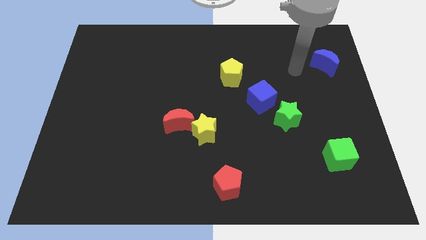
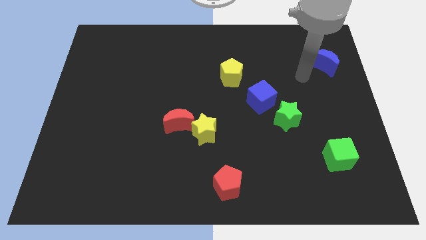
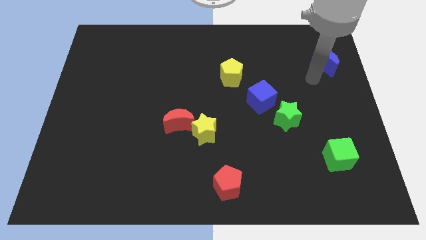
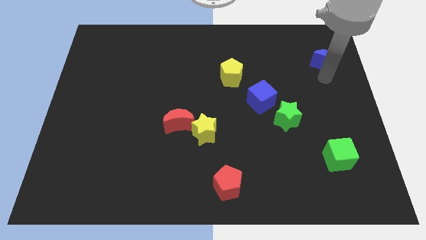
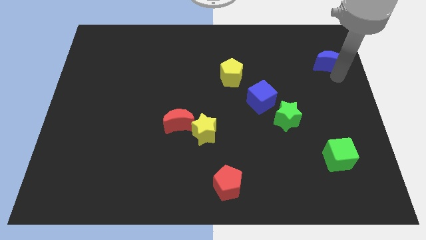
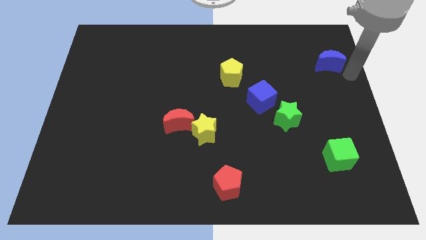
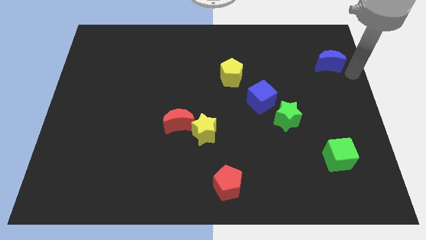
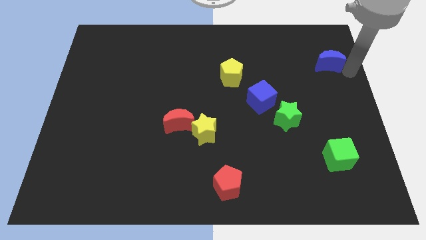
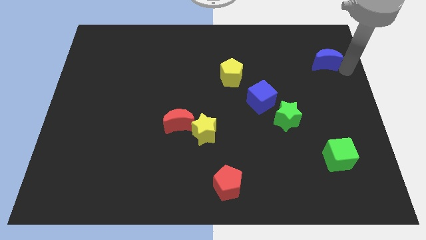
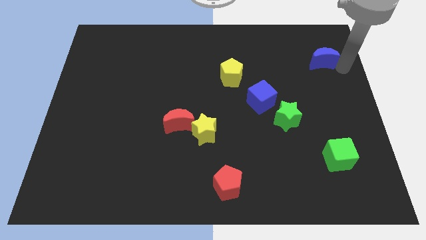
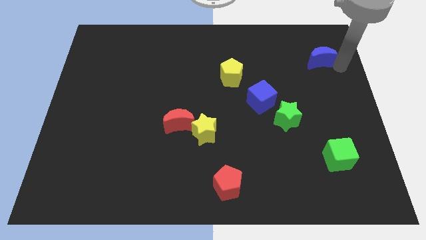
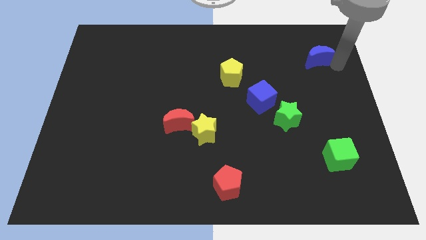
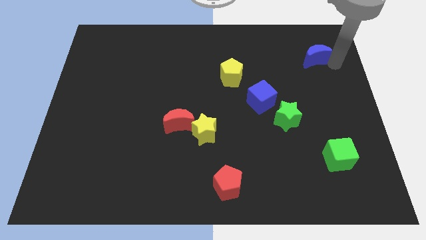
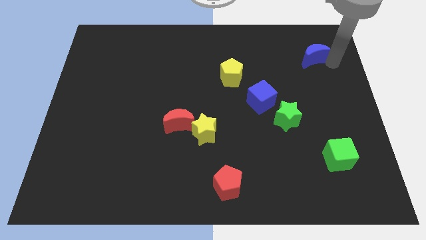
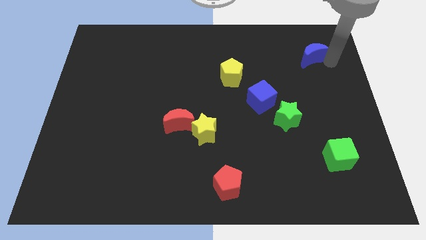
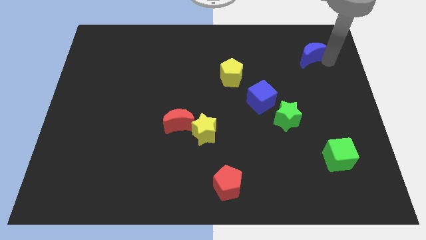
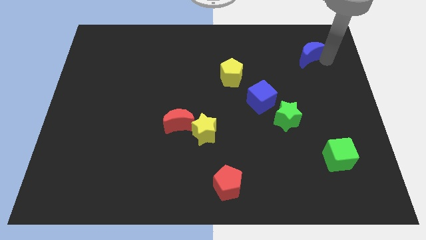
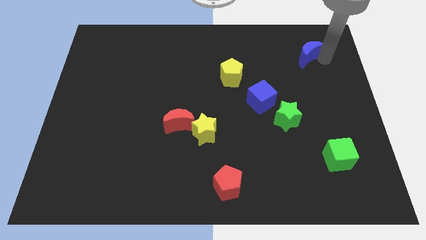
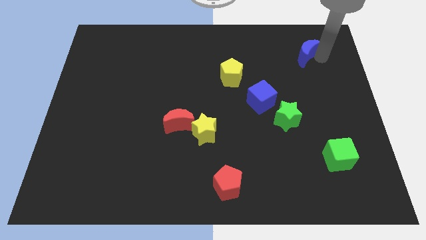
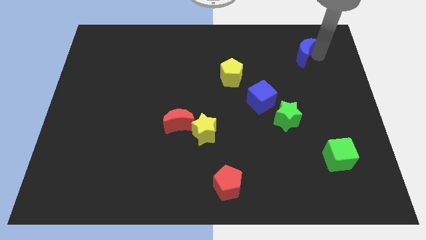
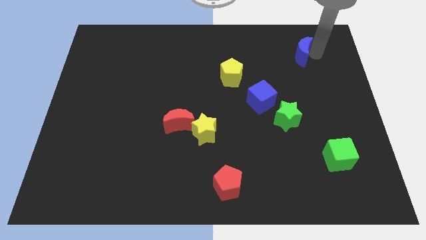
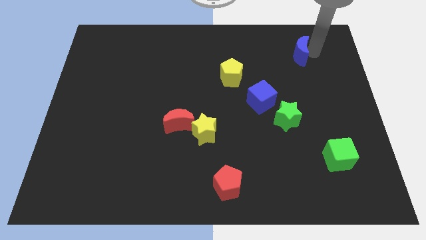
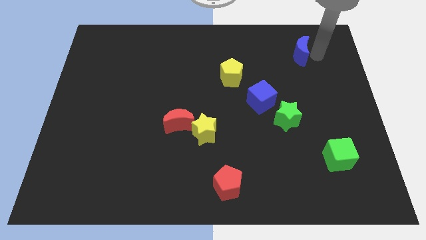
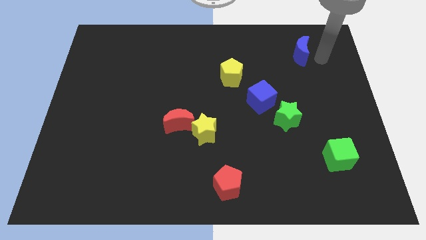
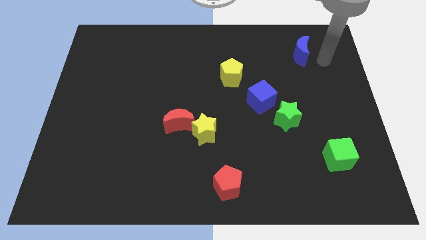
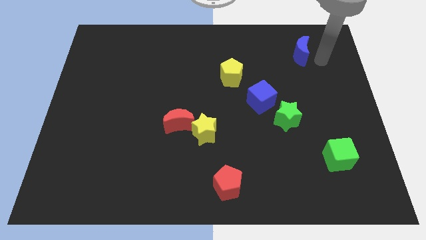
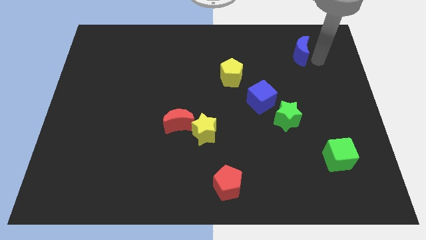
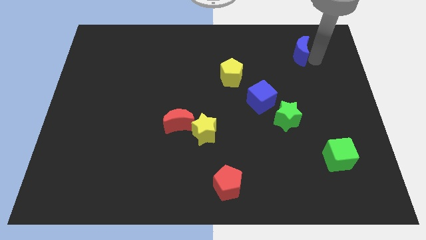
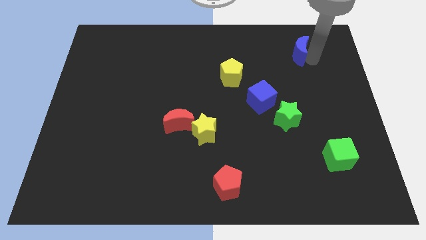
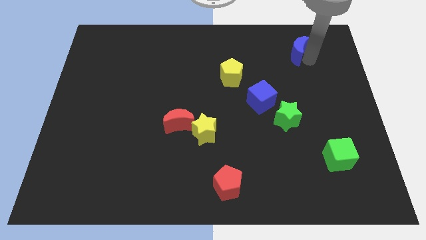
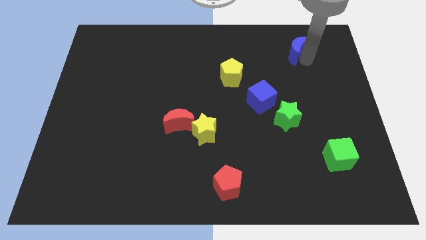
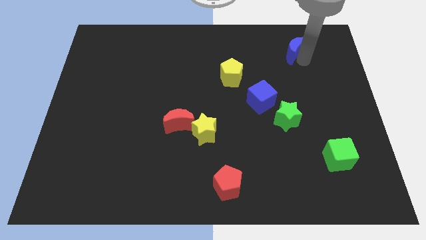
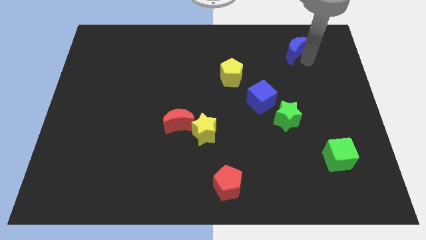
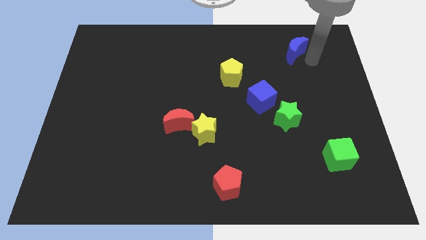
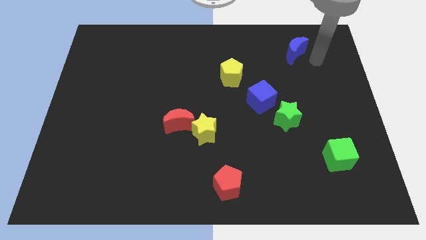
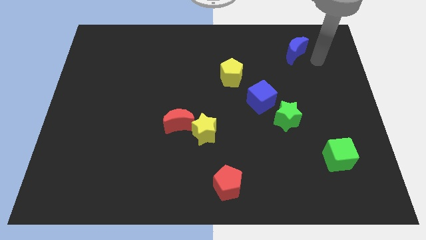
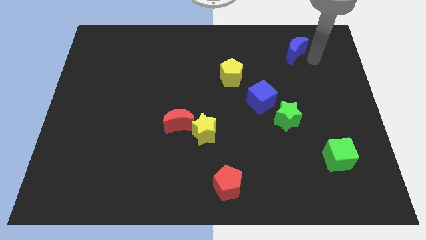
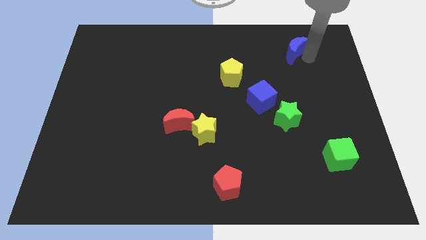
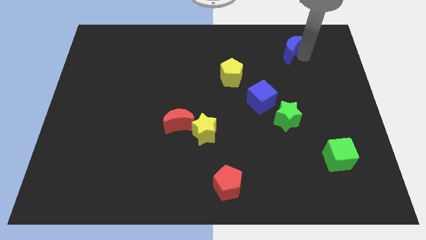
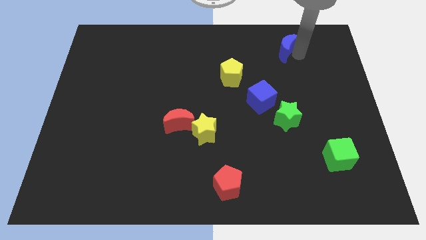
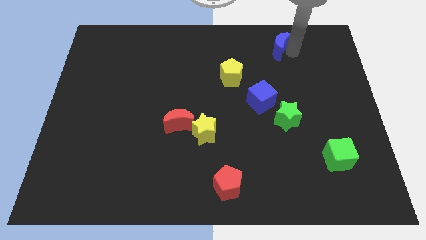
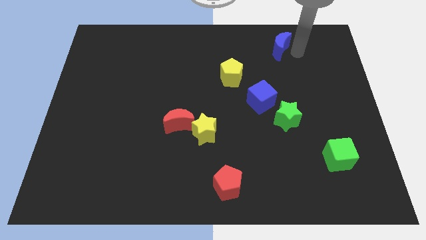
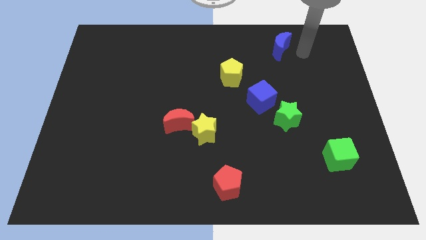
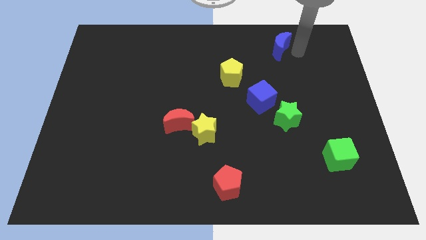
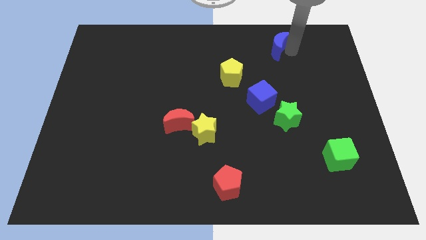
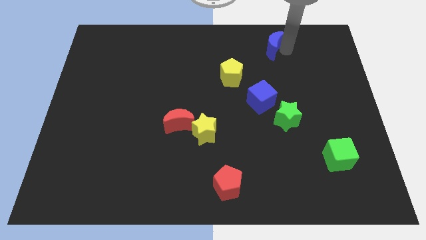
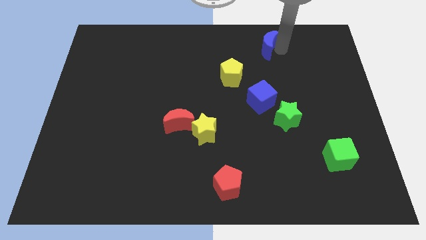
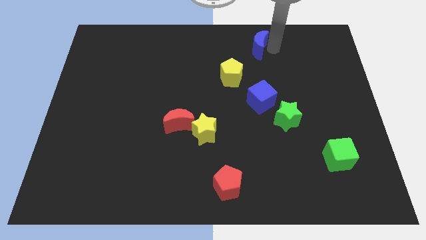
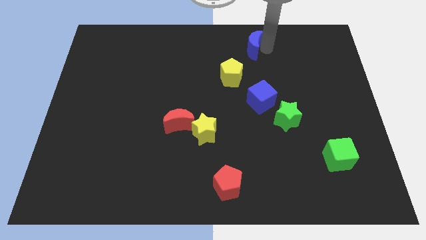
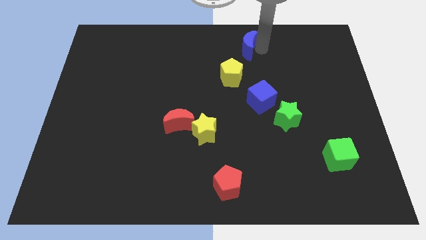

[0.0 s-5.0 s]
move the blue moon to the top side
